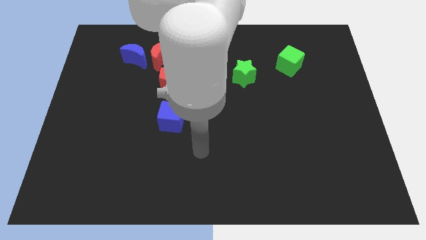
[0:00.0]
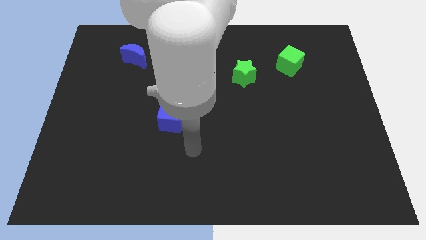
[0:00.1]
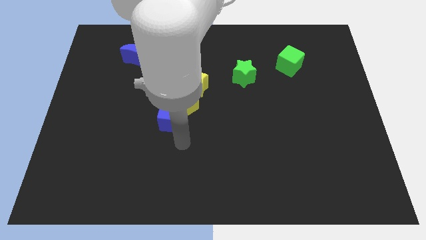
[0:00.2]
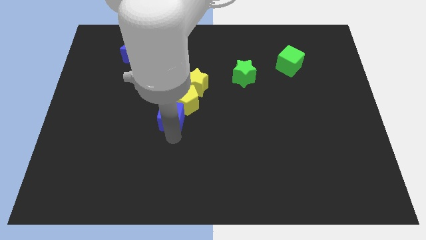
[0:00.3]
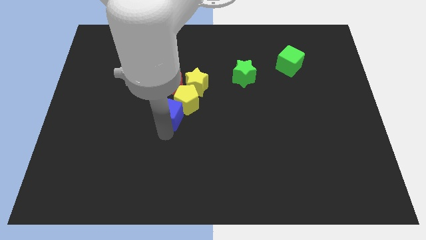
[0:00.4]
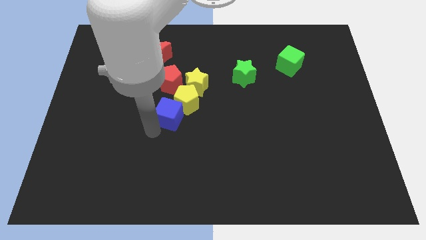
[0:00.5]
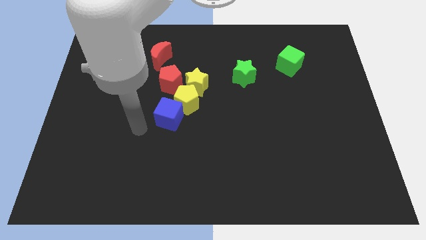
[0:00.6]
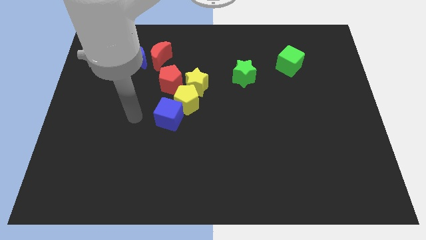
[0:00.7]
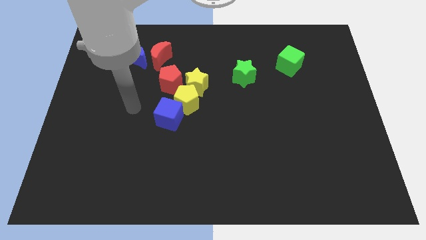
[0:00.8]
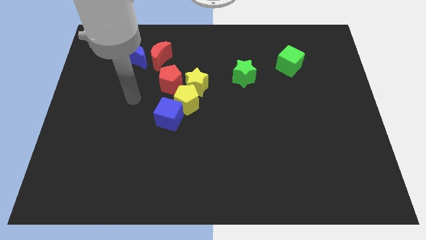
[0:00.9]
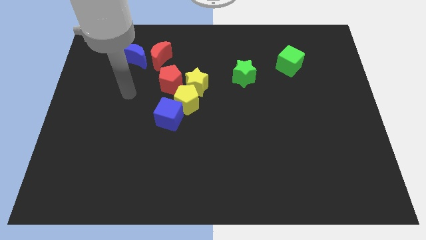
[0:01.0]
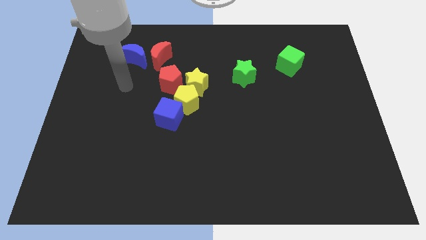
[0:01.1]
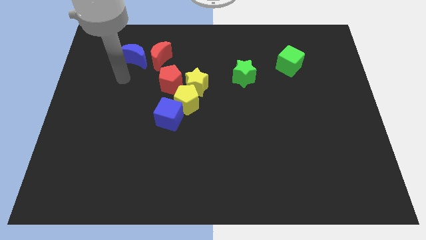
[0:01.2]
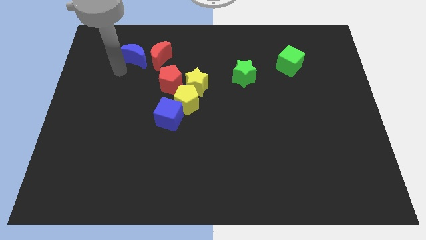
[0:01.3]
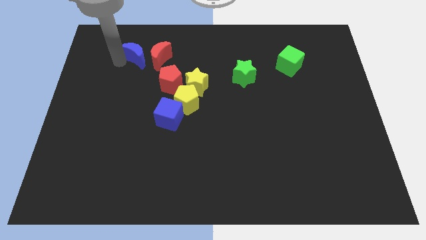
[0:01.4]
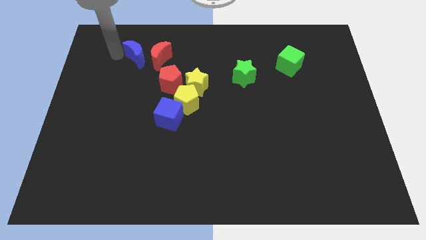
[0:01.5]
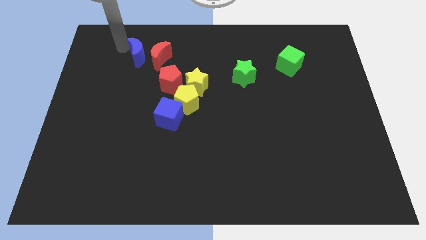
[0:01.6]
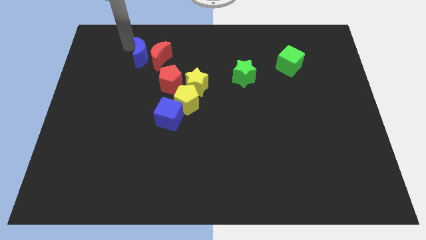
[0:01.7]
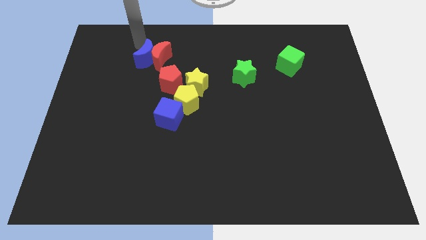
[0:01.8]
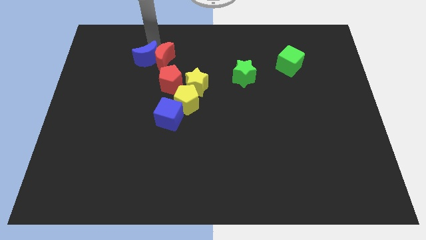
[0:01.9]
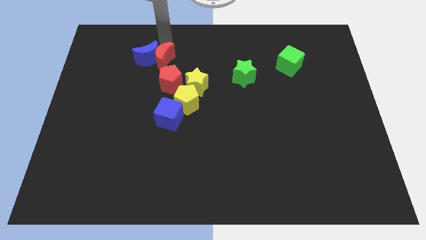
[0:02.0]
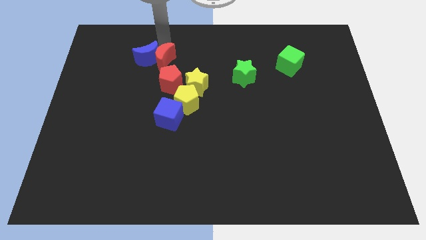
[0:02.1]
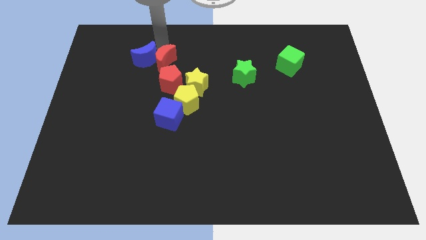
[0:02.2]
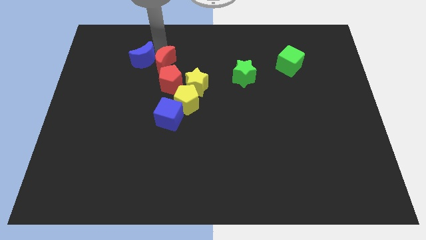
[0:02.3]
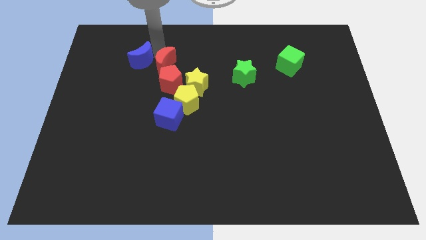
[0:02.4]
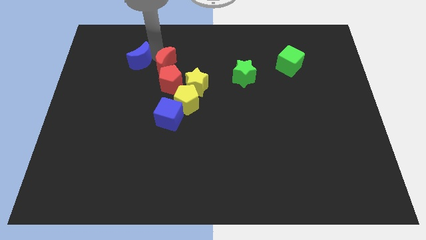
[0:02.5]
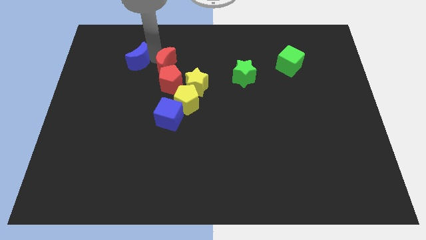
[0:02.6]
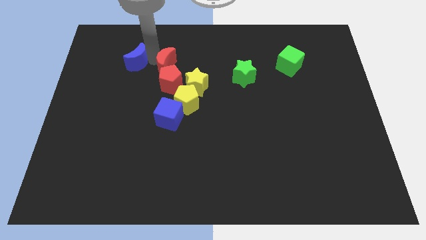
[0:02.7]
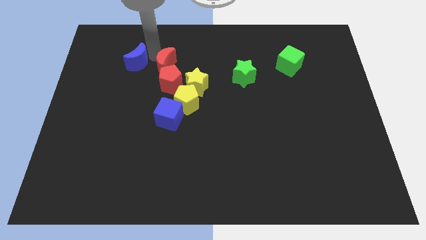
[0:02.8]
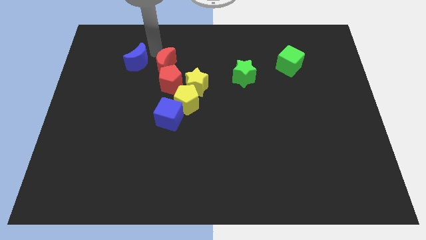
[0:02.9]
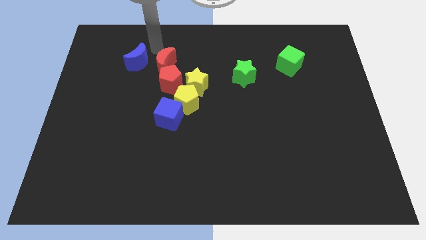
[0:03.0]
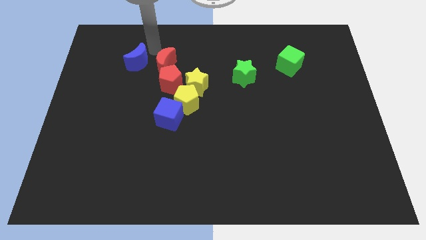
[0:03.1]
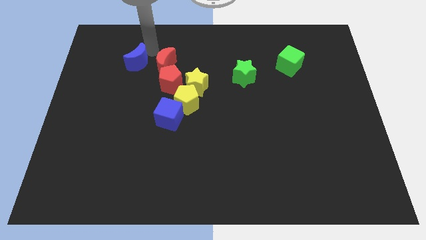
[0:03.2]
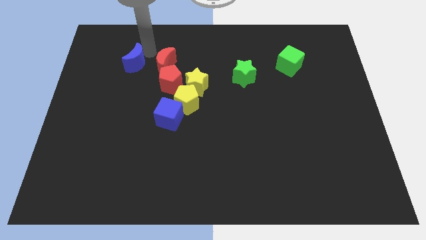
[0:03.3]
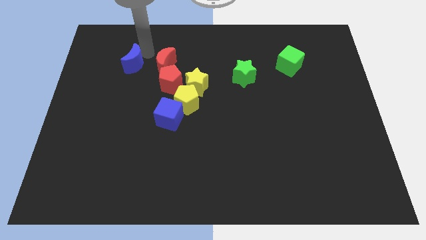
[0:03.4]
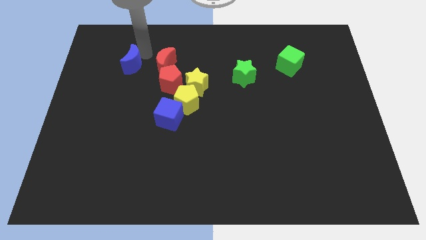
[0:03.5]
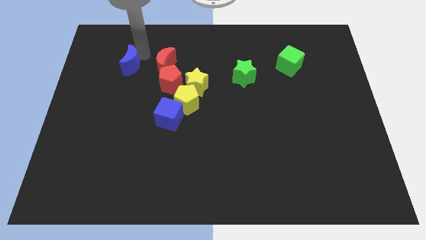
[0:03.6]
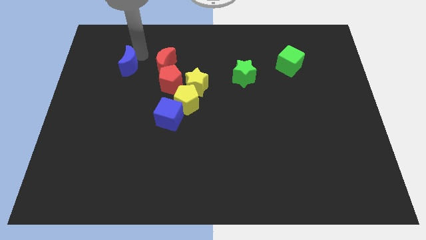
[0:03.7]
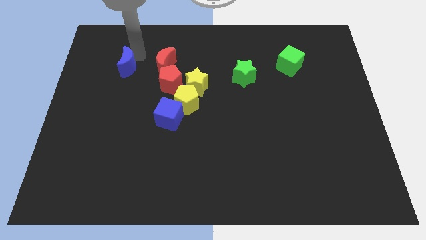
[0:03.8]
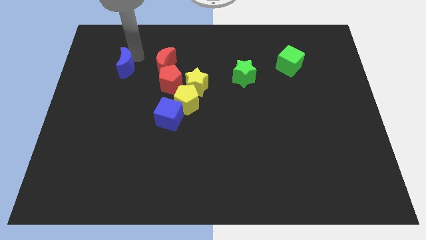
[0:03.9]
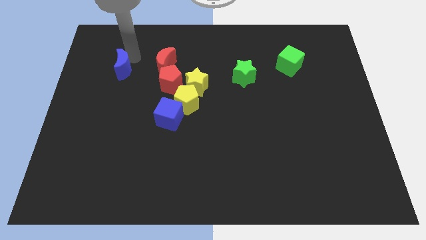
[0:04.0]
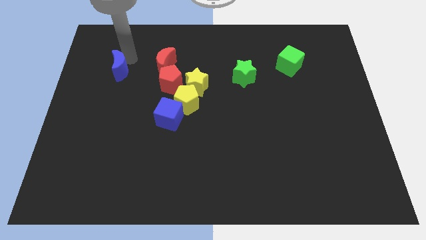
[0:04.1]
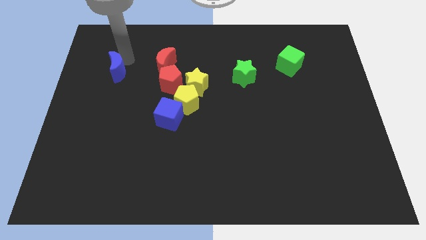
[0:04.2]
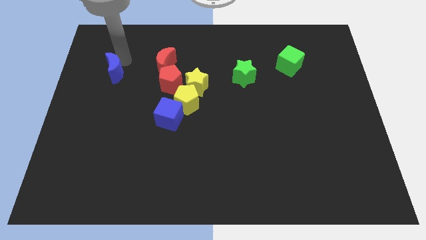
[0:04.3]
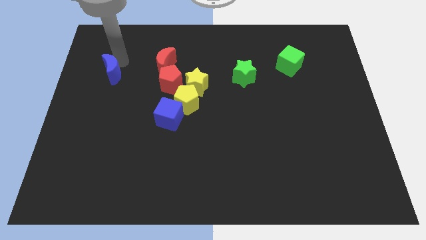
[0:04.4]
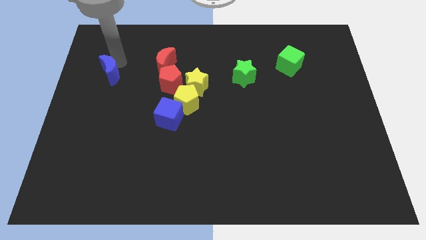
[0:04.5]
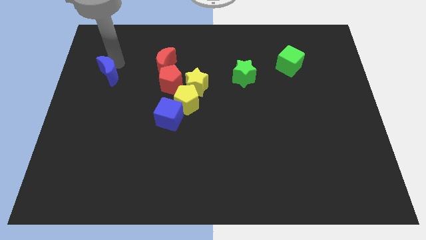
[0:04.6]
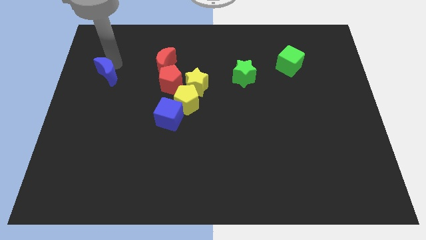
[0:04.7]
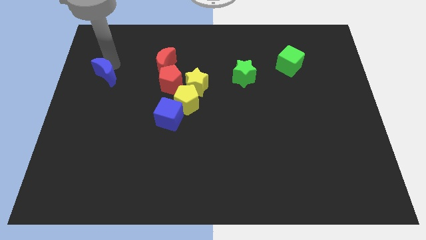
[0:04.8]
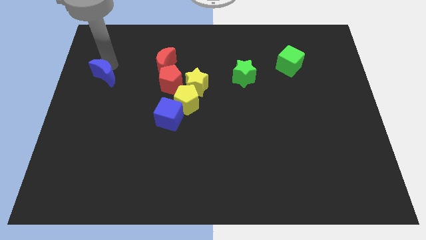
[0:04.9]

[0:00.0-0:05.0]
put the blue moon to the left side of the board
